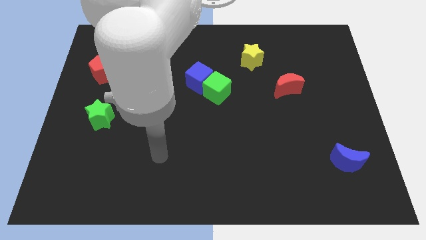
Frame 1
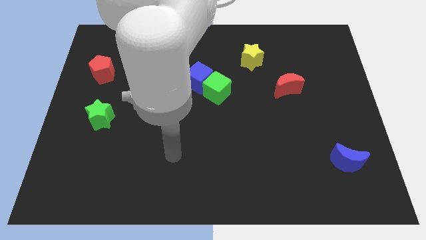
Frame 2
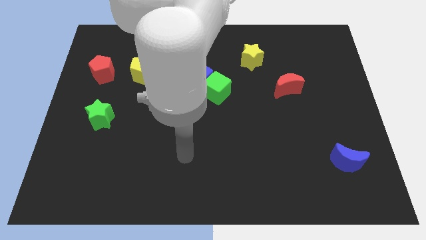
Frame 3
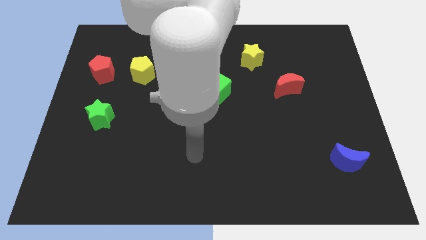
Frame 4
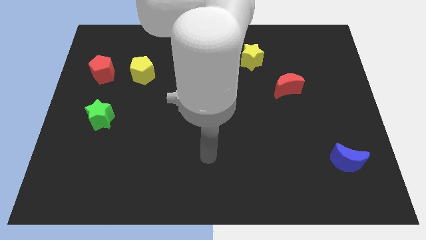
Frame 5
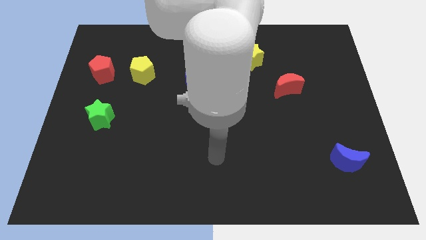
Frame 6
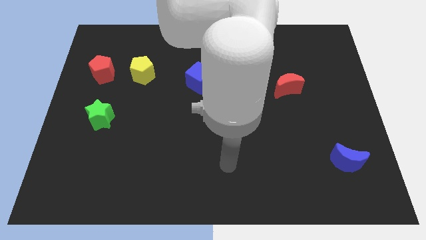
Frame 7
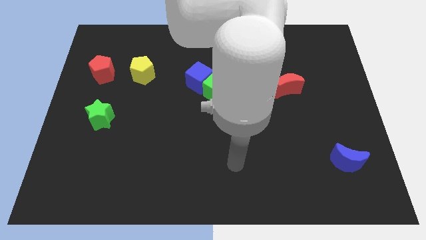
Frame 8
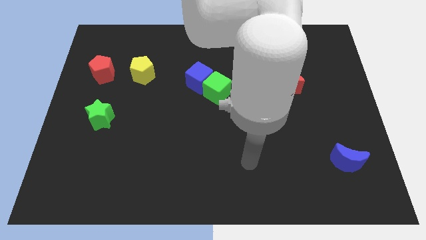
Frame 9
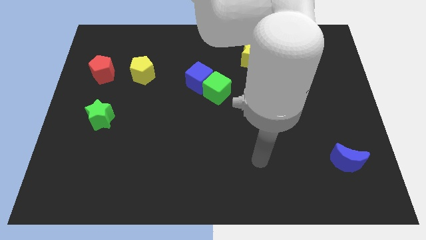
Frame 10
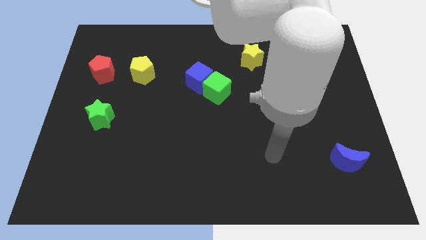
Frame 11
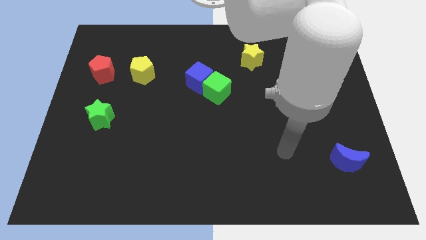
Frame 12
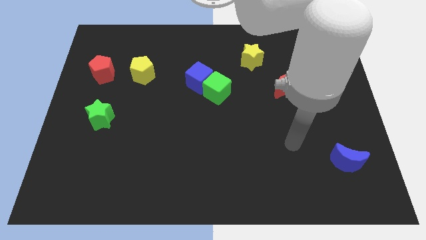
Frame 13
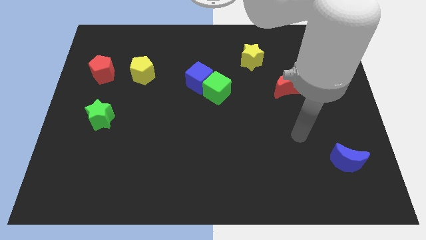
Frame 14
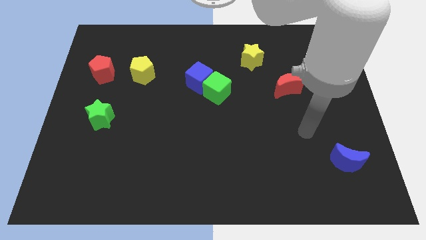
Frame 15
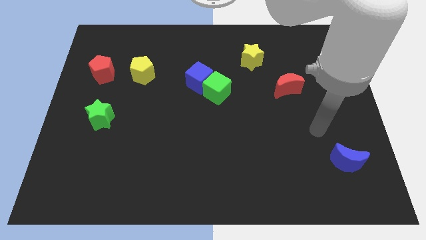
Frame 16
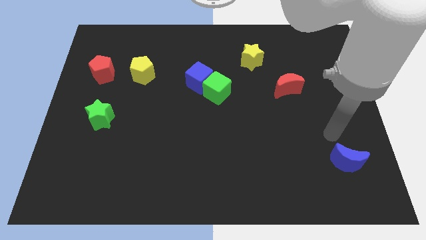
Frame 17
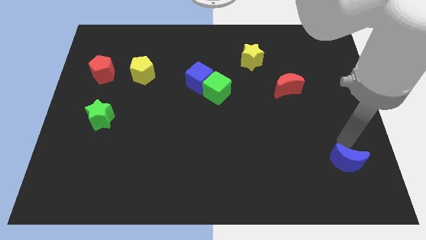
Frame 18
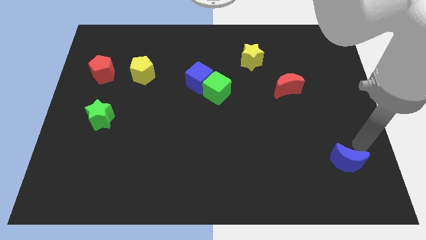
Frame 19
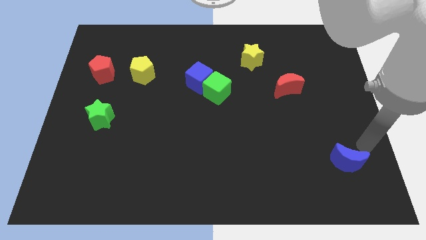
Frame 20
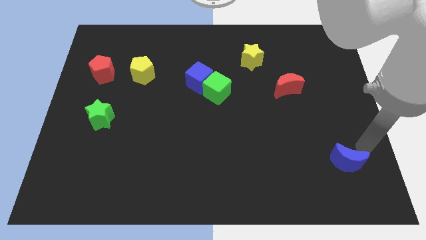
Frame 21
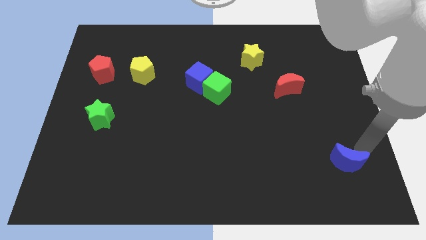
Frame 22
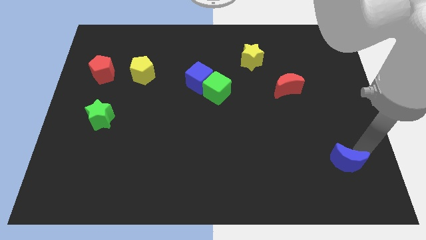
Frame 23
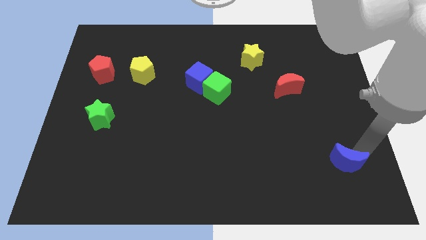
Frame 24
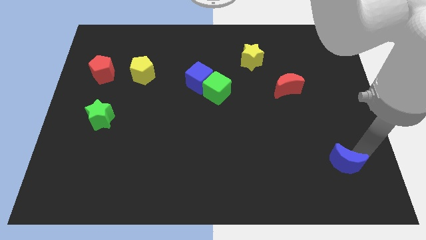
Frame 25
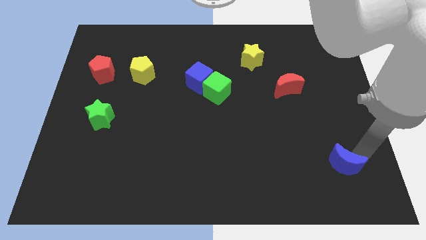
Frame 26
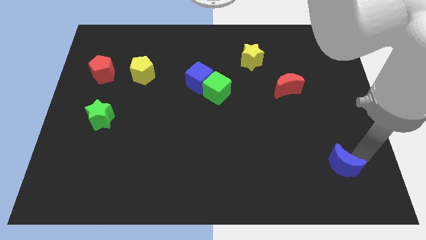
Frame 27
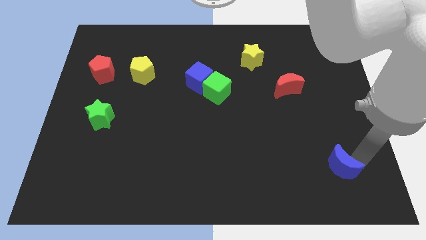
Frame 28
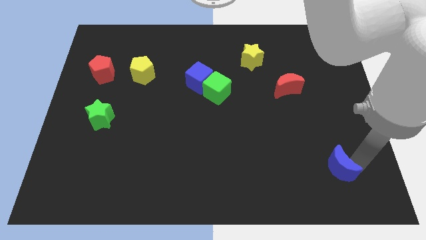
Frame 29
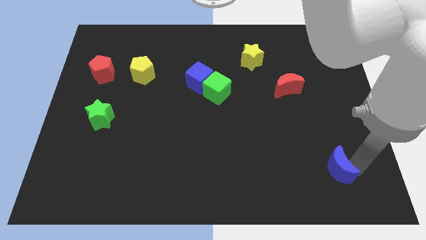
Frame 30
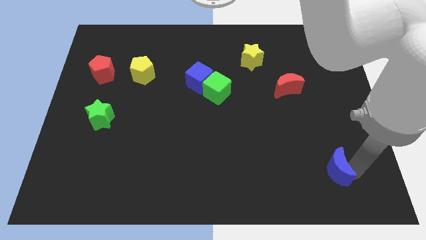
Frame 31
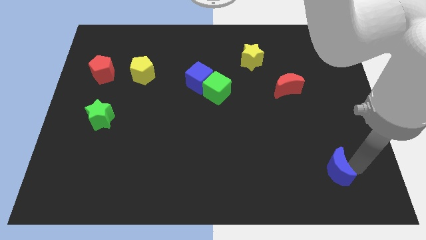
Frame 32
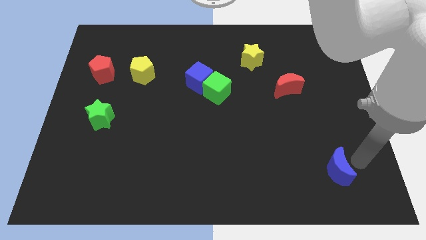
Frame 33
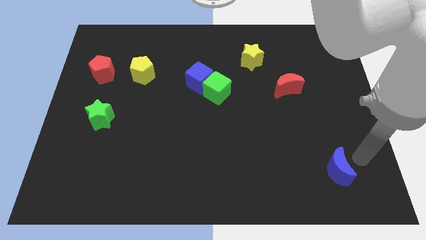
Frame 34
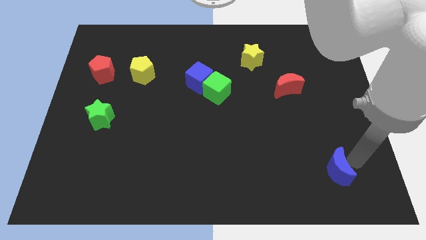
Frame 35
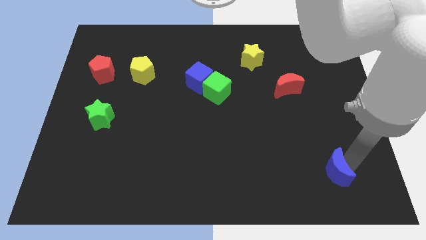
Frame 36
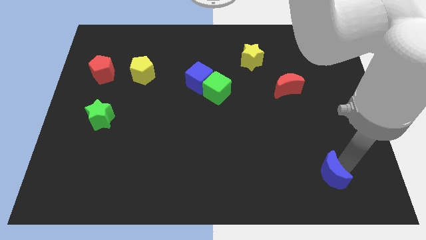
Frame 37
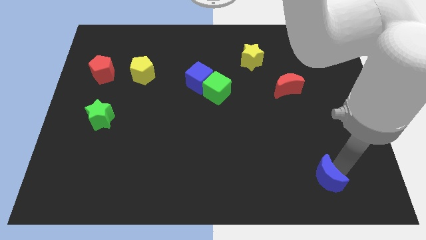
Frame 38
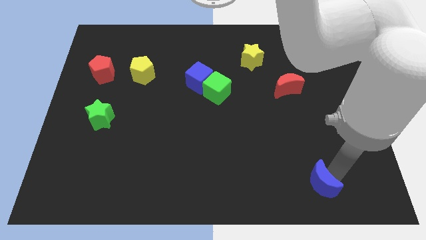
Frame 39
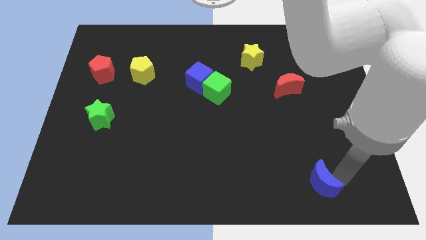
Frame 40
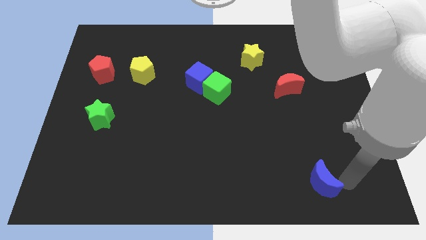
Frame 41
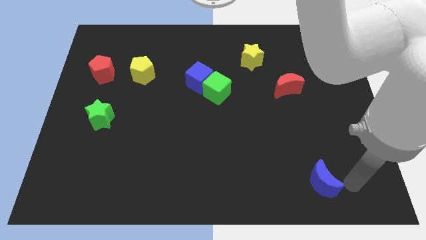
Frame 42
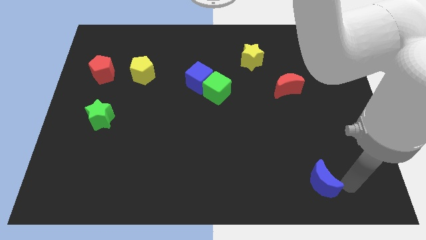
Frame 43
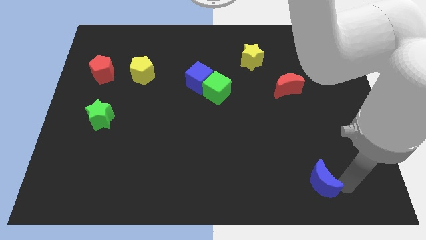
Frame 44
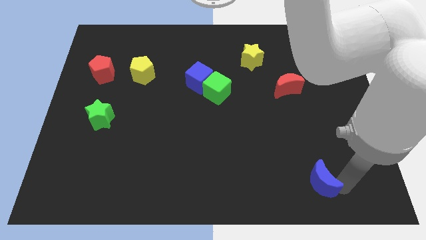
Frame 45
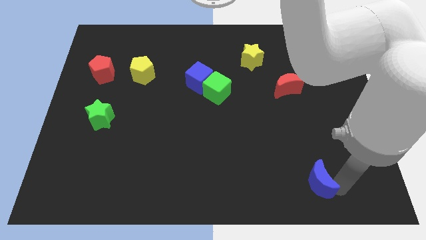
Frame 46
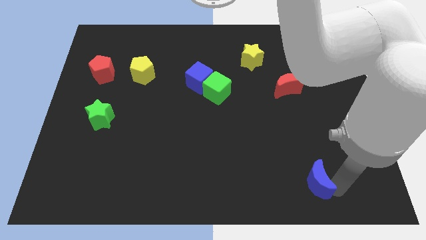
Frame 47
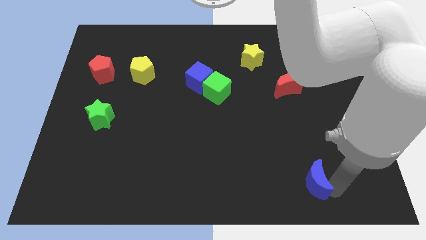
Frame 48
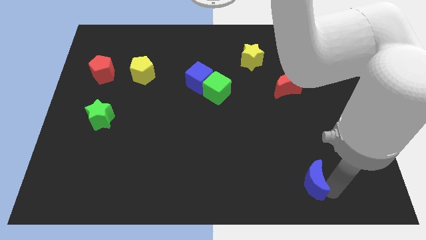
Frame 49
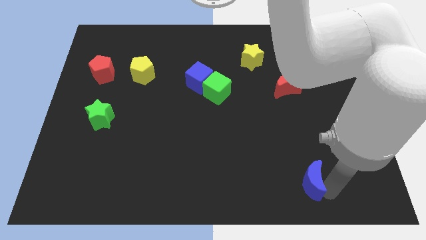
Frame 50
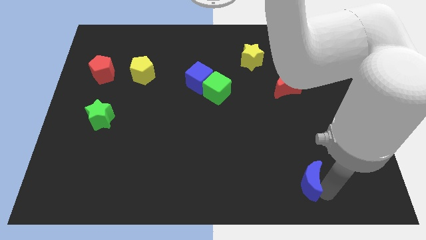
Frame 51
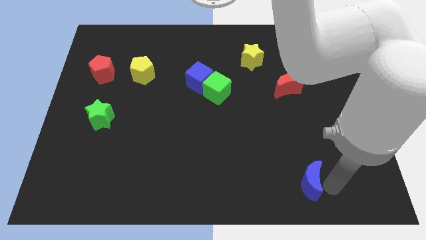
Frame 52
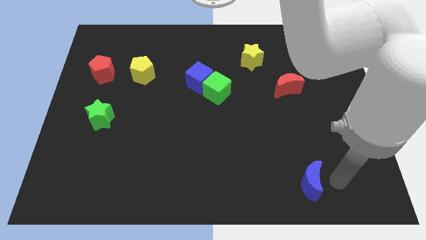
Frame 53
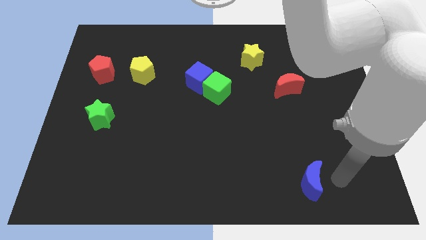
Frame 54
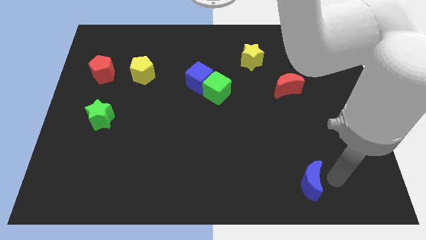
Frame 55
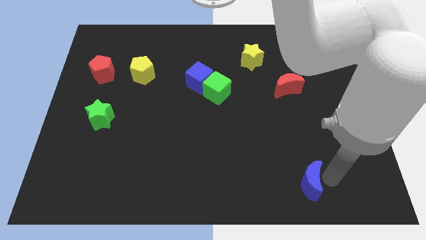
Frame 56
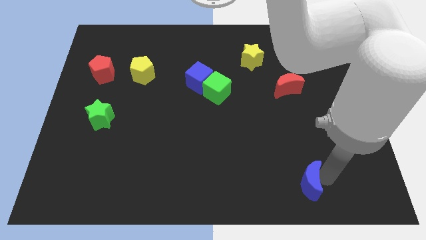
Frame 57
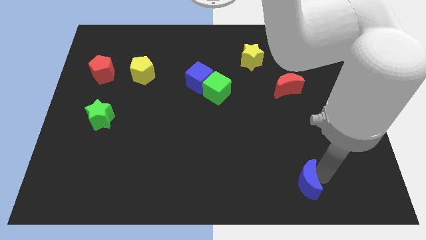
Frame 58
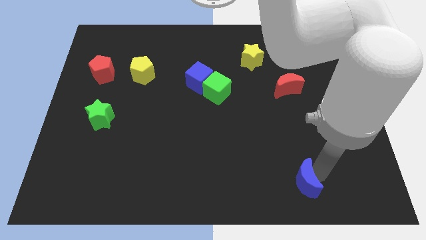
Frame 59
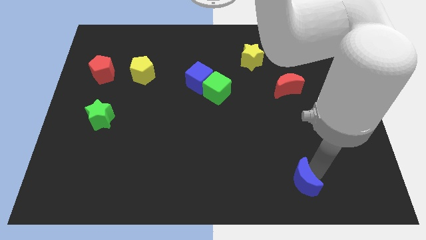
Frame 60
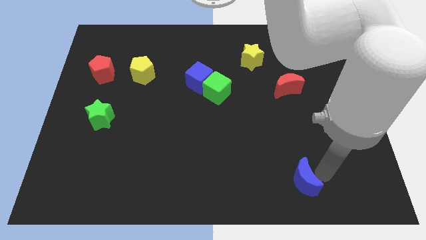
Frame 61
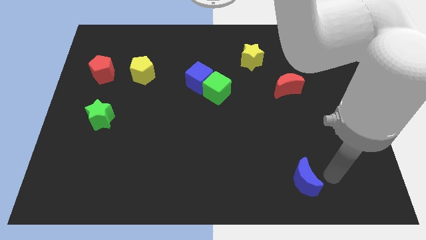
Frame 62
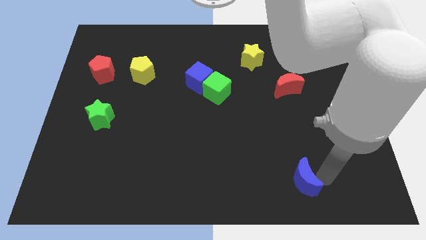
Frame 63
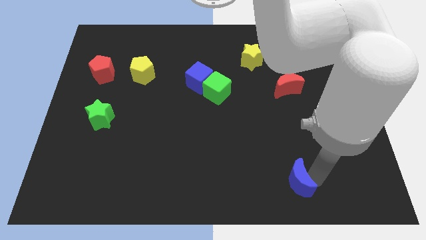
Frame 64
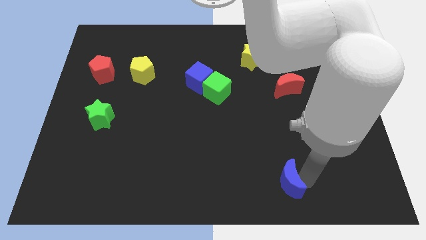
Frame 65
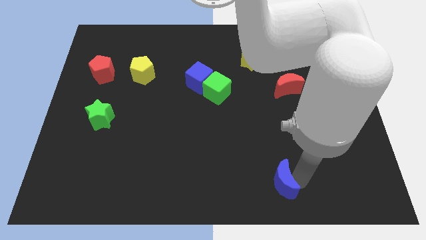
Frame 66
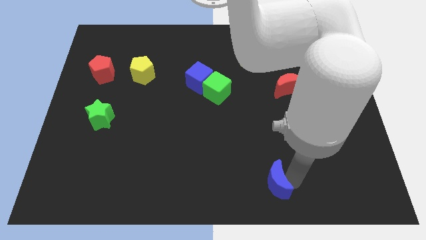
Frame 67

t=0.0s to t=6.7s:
push the blue moon to the bottom side

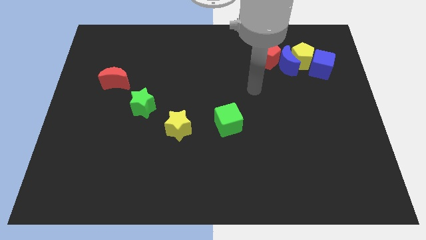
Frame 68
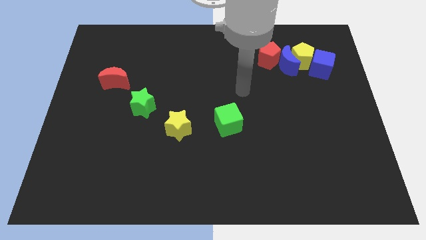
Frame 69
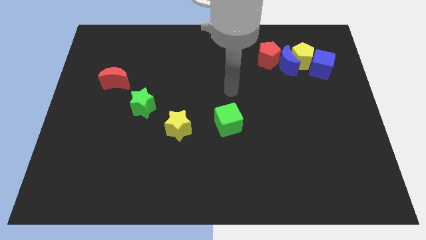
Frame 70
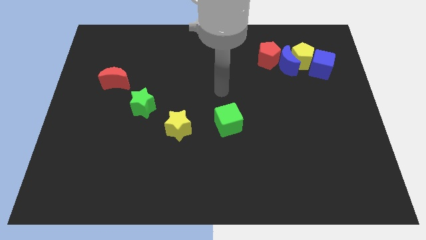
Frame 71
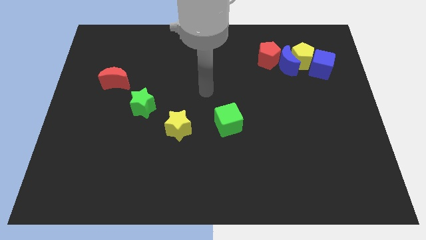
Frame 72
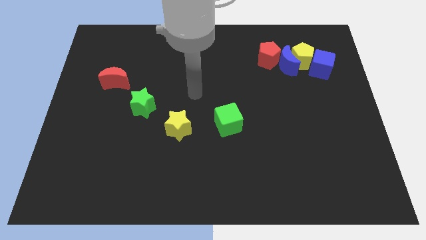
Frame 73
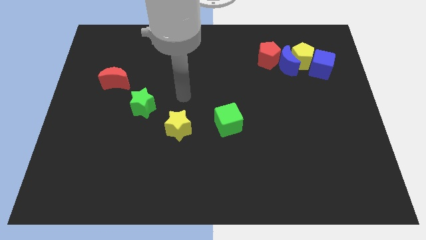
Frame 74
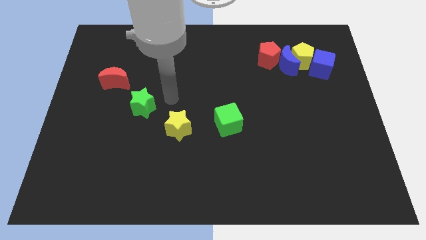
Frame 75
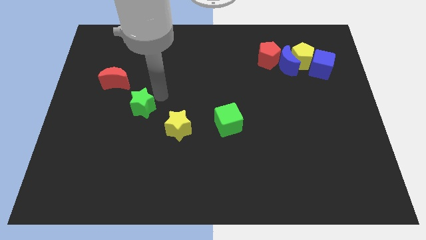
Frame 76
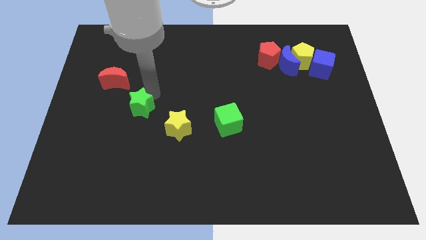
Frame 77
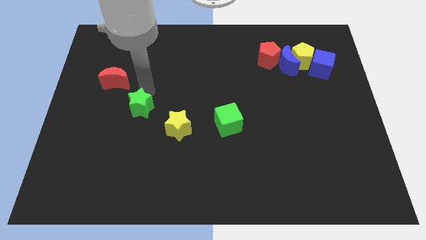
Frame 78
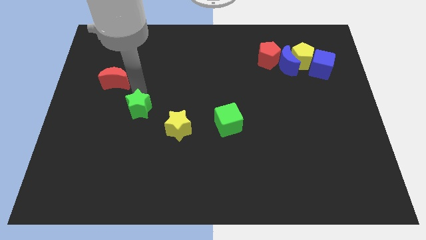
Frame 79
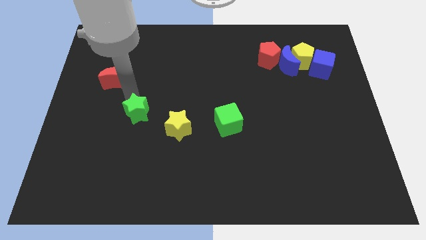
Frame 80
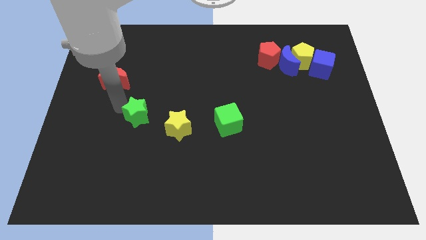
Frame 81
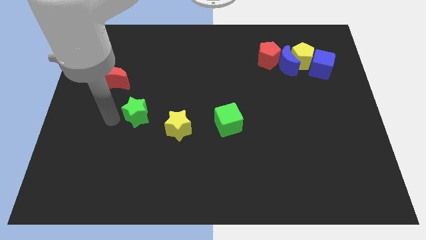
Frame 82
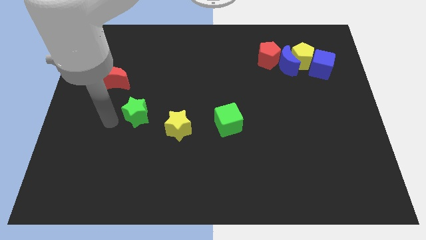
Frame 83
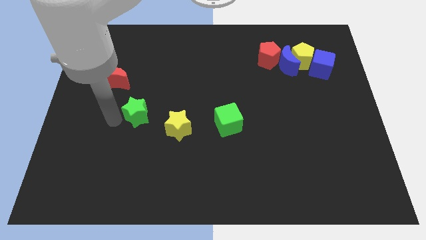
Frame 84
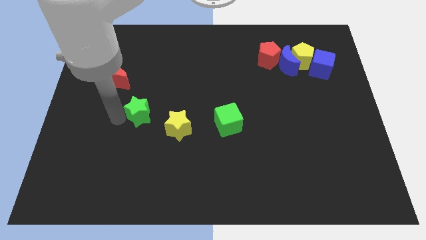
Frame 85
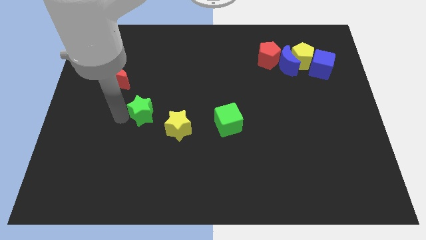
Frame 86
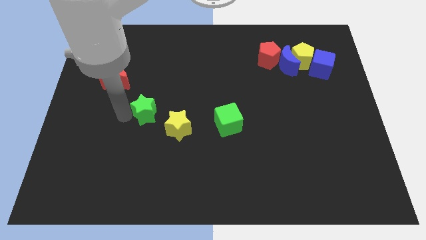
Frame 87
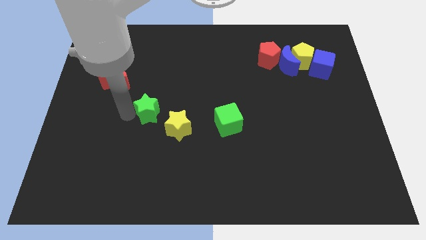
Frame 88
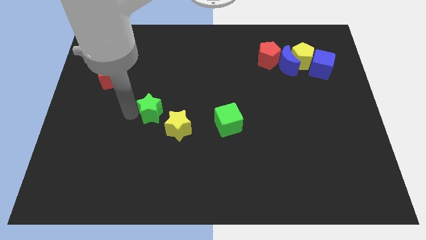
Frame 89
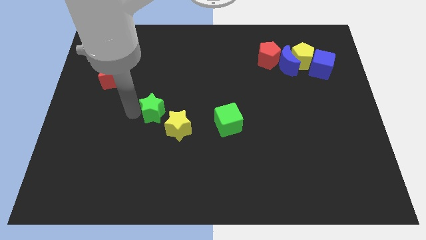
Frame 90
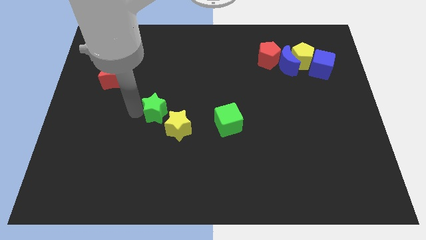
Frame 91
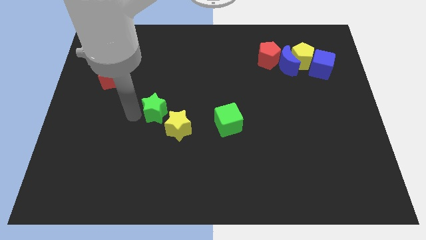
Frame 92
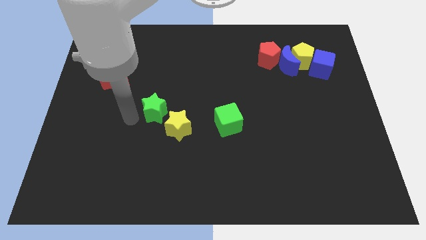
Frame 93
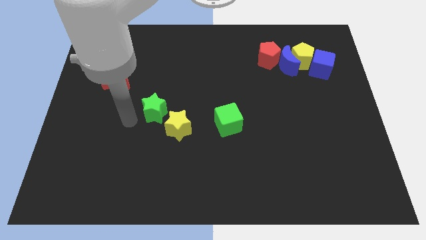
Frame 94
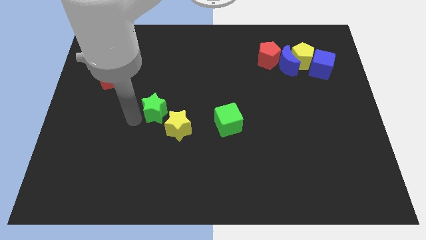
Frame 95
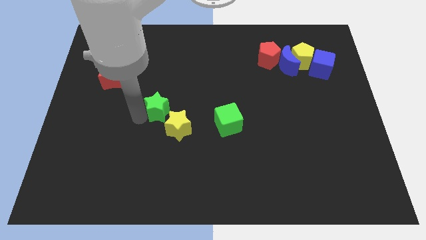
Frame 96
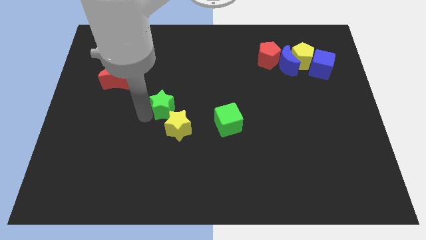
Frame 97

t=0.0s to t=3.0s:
move the green star to the middle
